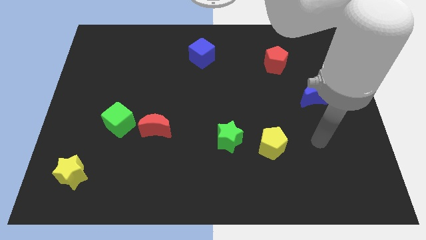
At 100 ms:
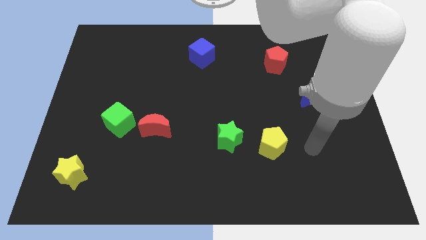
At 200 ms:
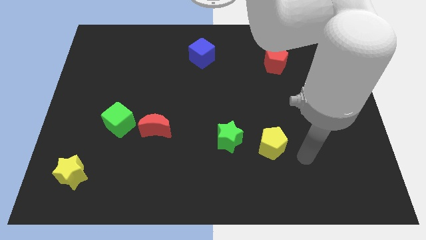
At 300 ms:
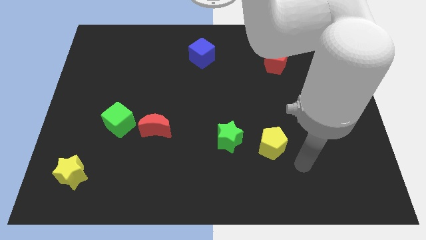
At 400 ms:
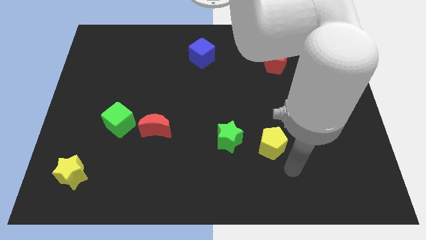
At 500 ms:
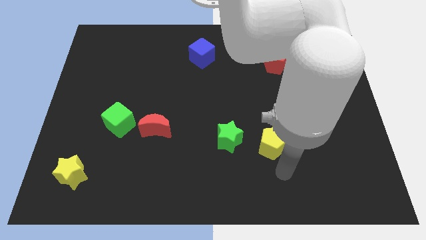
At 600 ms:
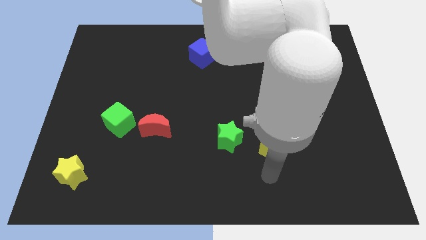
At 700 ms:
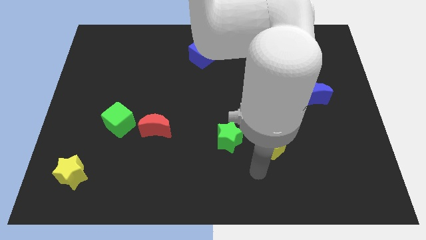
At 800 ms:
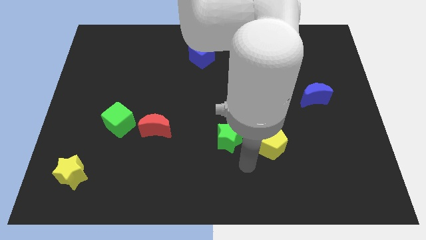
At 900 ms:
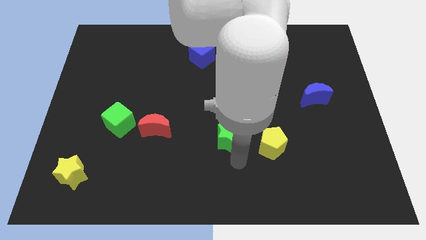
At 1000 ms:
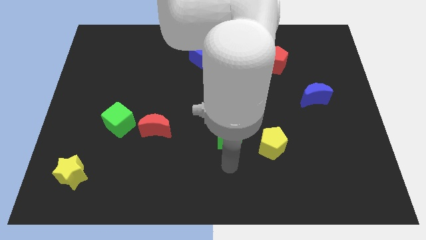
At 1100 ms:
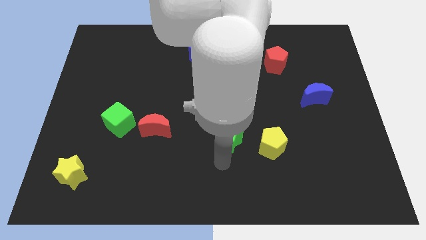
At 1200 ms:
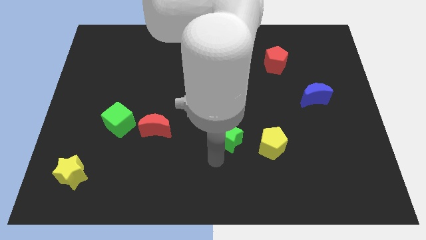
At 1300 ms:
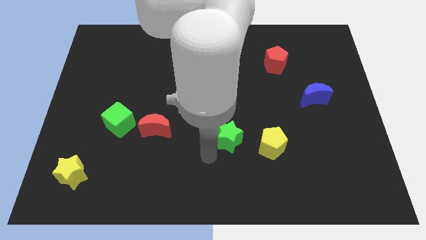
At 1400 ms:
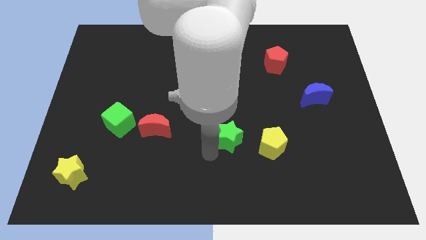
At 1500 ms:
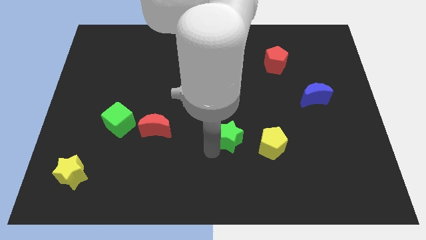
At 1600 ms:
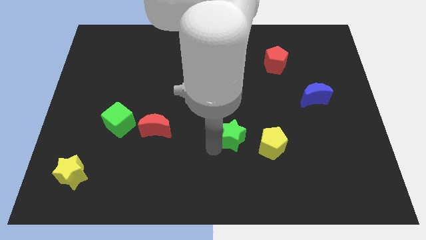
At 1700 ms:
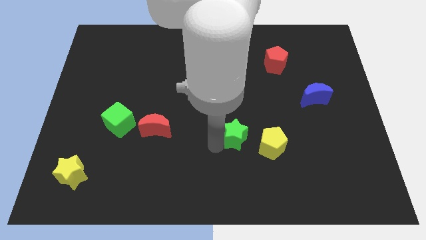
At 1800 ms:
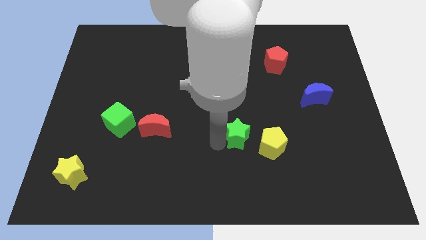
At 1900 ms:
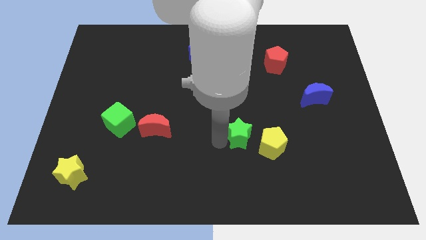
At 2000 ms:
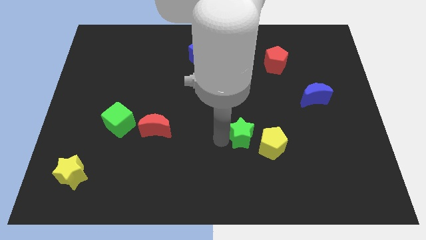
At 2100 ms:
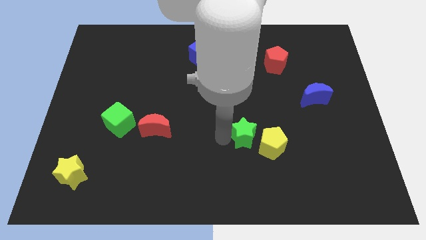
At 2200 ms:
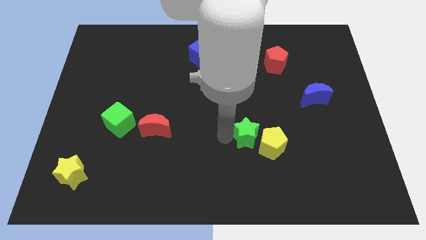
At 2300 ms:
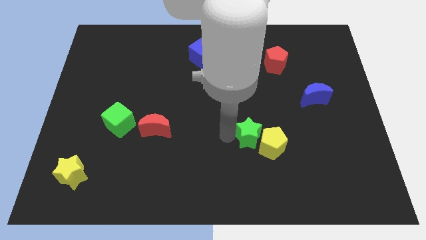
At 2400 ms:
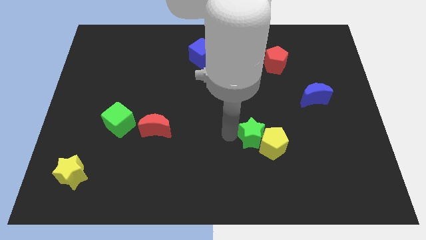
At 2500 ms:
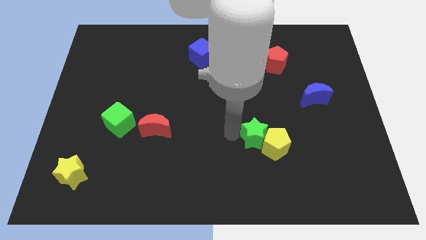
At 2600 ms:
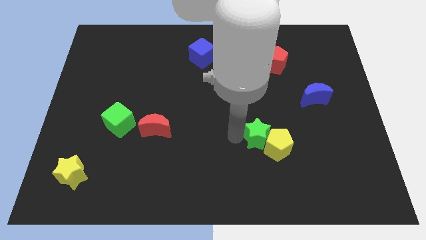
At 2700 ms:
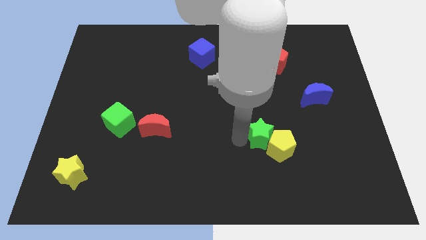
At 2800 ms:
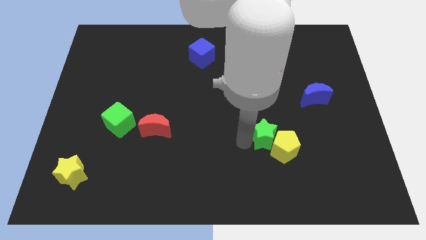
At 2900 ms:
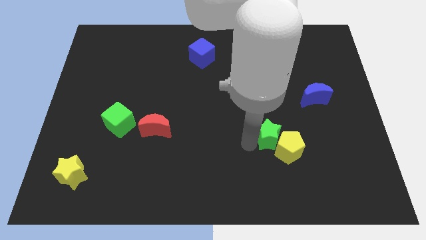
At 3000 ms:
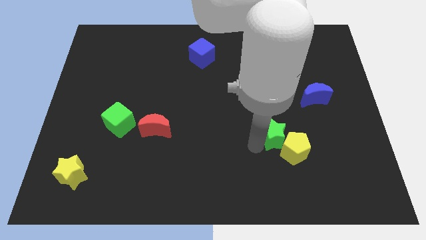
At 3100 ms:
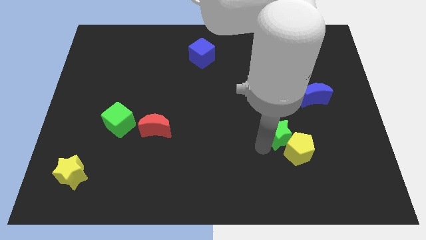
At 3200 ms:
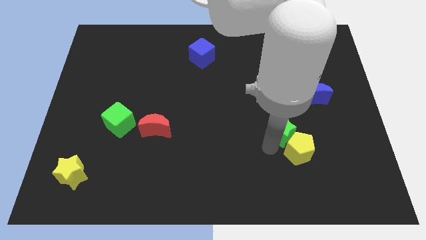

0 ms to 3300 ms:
slide the green star up and then to the right a little bit

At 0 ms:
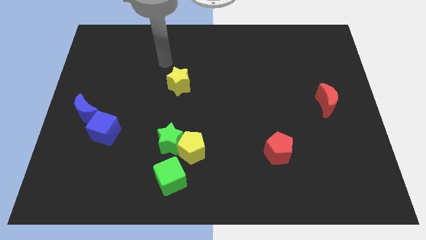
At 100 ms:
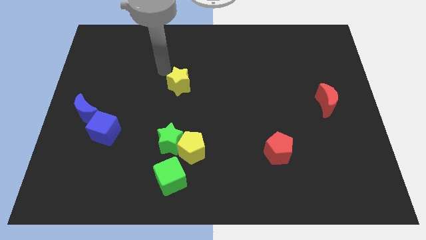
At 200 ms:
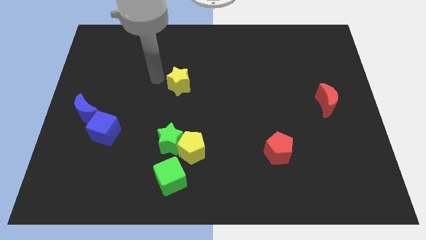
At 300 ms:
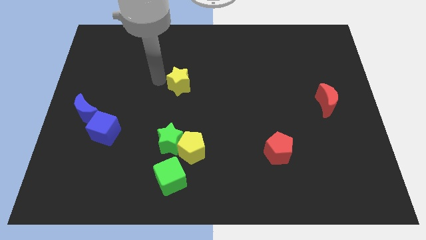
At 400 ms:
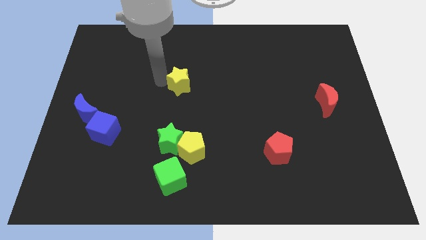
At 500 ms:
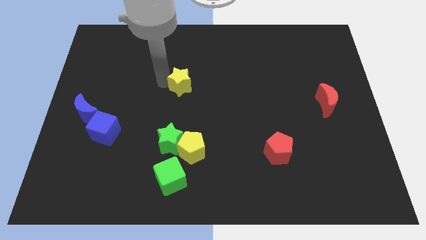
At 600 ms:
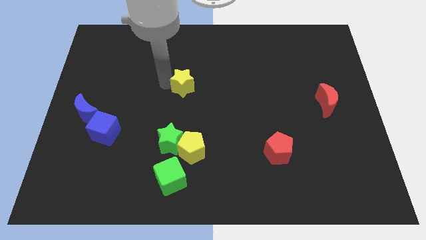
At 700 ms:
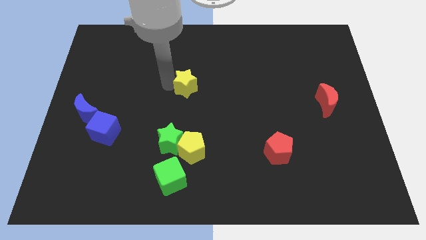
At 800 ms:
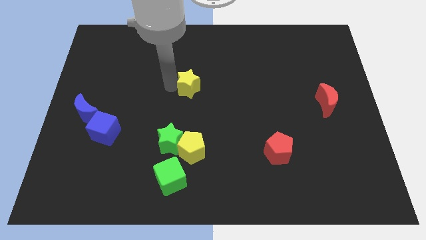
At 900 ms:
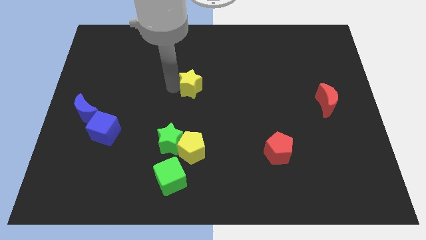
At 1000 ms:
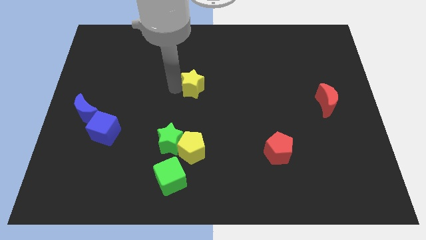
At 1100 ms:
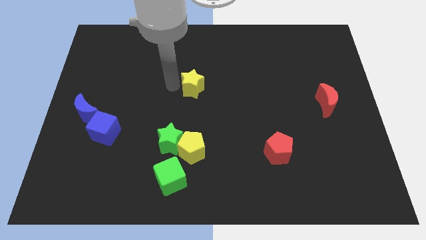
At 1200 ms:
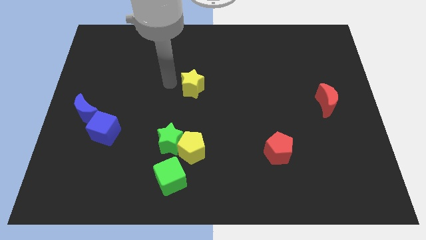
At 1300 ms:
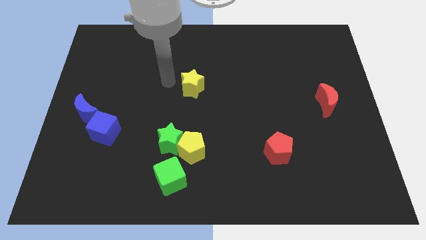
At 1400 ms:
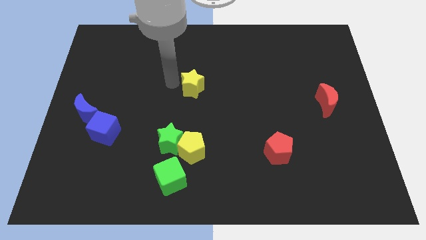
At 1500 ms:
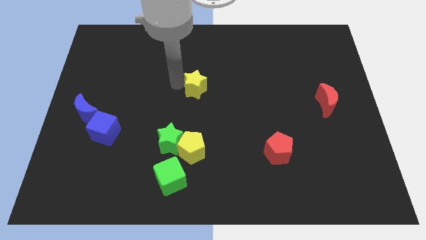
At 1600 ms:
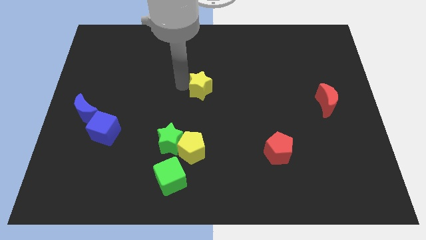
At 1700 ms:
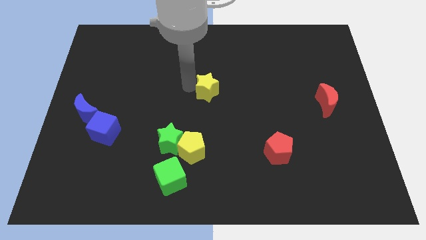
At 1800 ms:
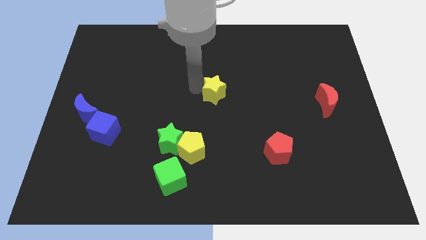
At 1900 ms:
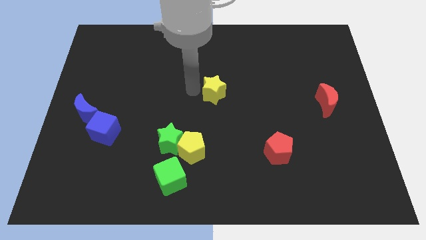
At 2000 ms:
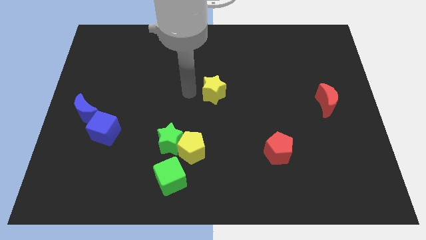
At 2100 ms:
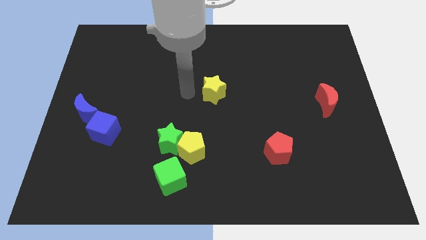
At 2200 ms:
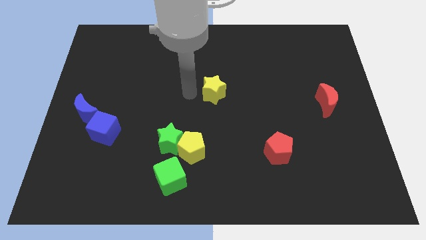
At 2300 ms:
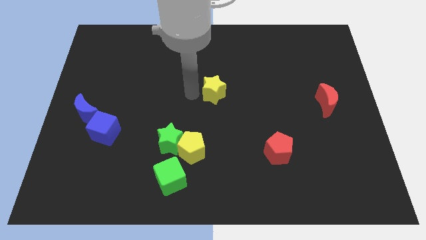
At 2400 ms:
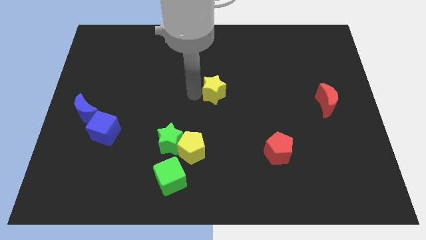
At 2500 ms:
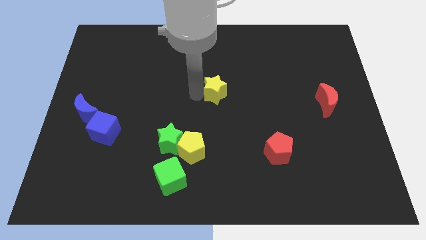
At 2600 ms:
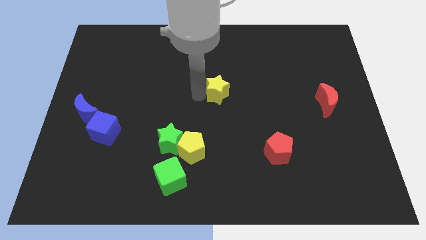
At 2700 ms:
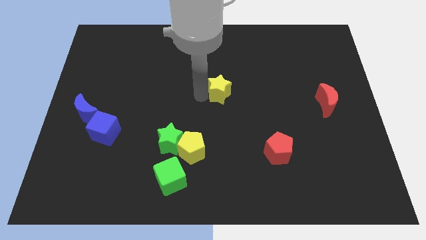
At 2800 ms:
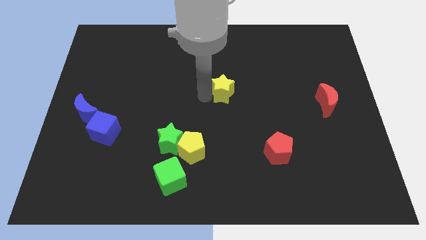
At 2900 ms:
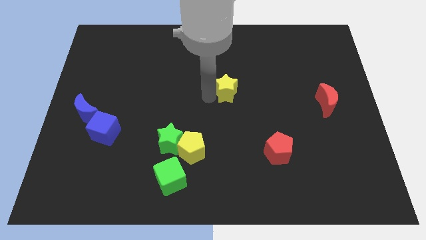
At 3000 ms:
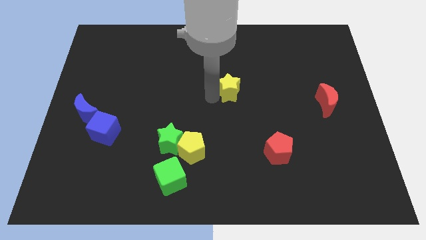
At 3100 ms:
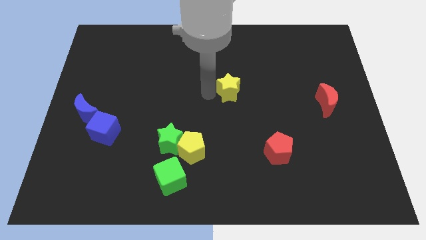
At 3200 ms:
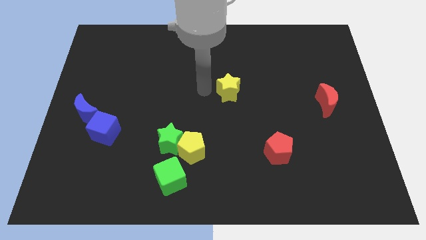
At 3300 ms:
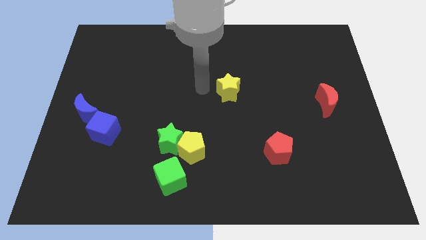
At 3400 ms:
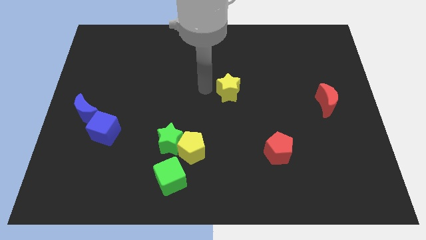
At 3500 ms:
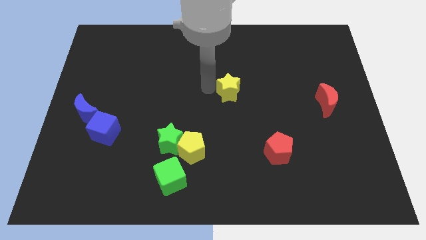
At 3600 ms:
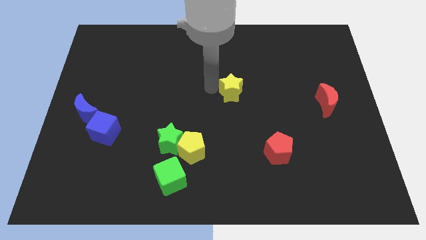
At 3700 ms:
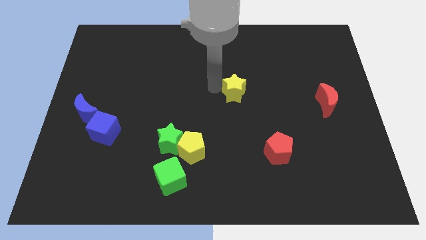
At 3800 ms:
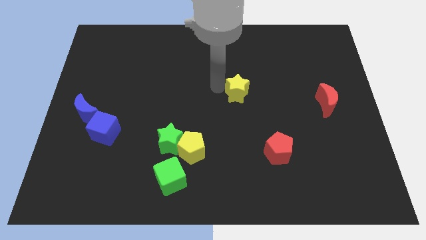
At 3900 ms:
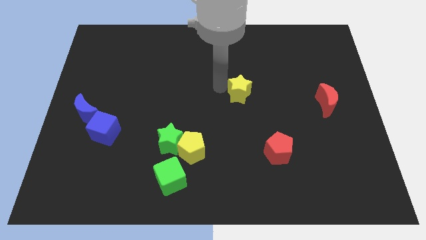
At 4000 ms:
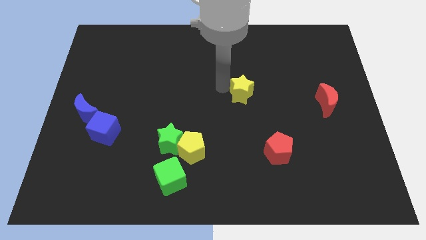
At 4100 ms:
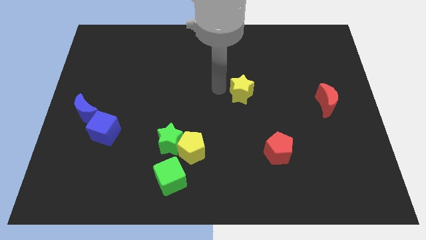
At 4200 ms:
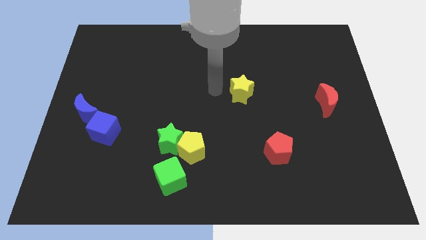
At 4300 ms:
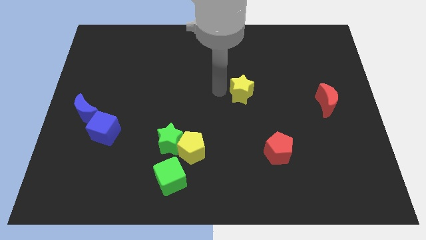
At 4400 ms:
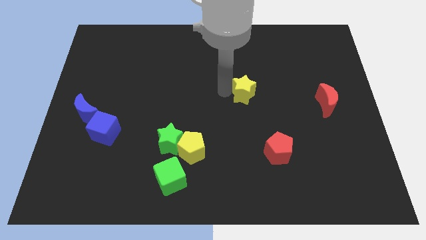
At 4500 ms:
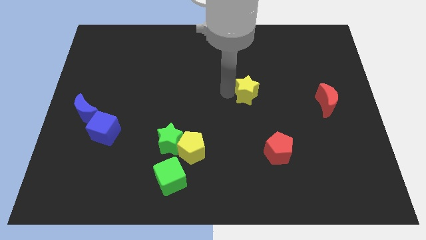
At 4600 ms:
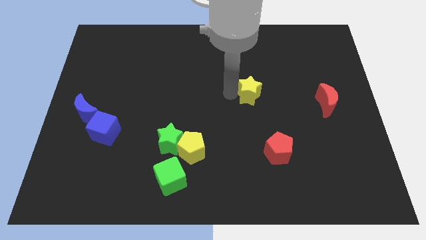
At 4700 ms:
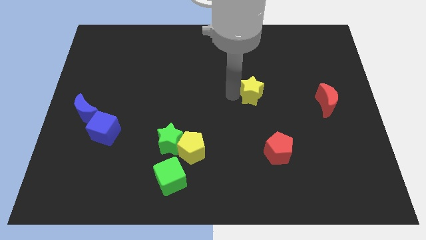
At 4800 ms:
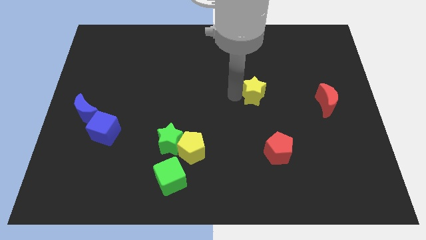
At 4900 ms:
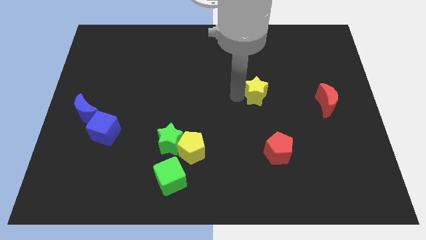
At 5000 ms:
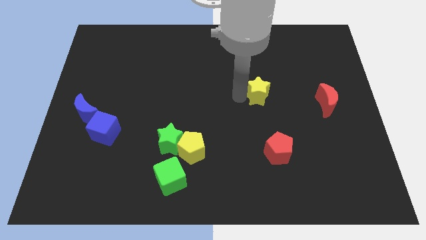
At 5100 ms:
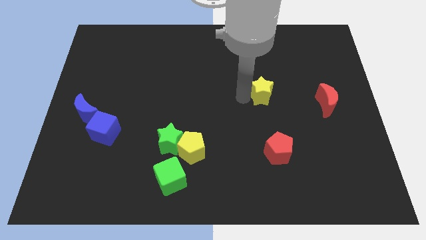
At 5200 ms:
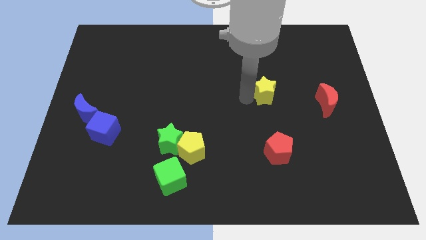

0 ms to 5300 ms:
slide the yellow star right
